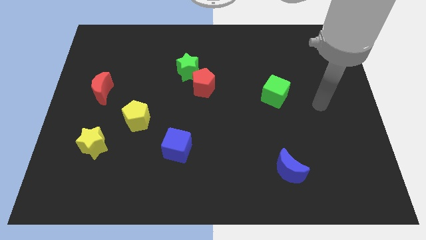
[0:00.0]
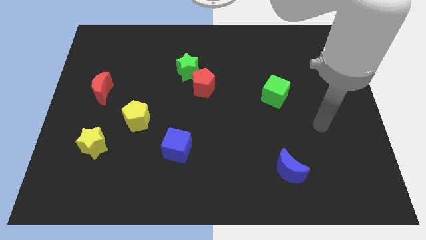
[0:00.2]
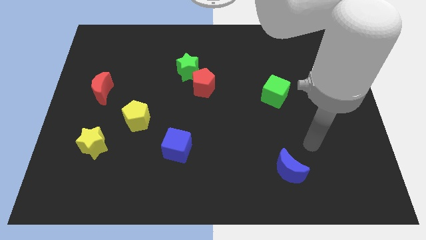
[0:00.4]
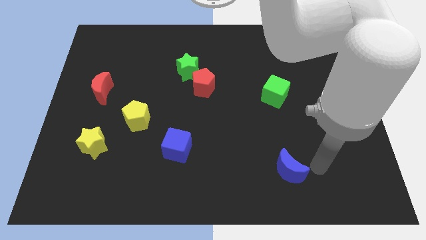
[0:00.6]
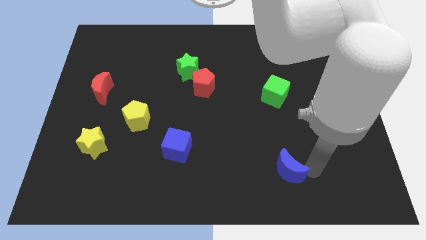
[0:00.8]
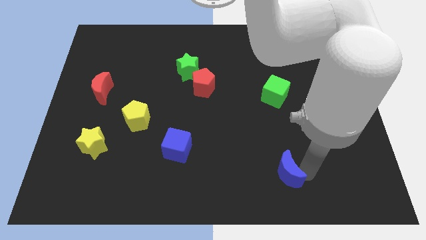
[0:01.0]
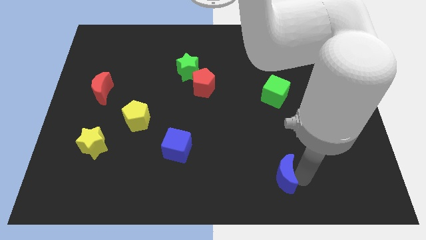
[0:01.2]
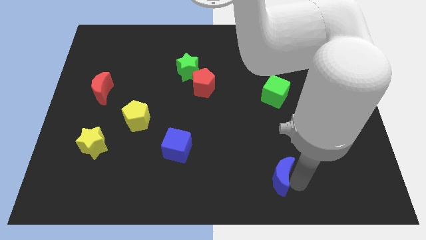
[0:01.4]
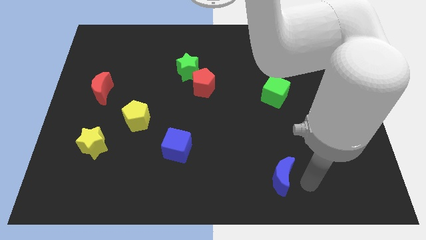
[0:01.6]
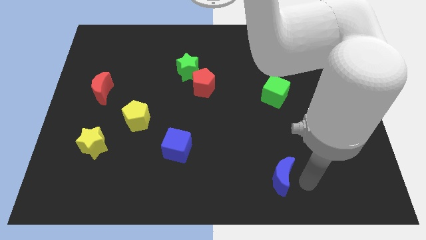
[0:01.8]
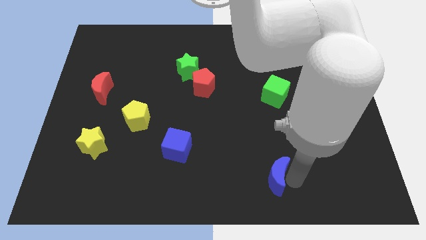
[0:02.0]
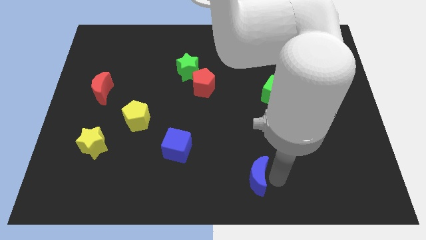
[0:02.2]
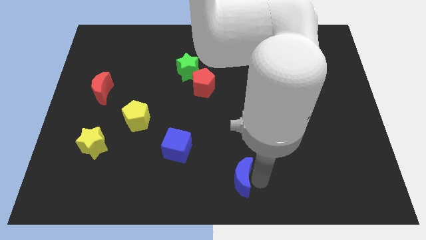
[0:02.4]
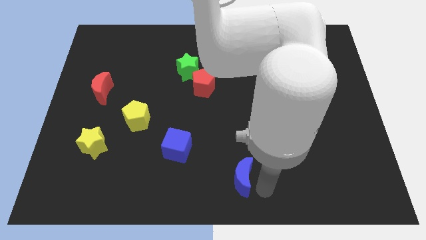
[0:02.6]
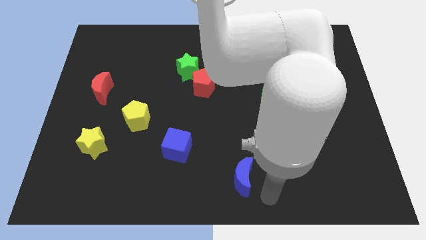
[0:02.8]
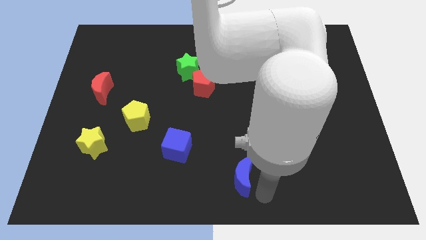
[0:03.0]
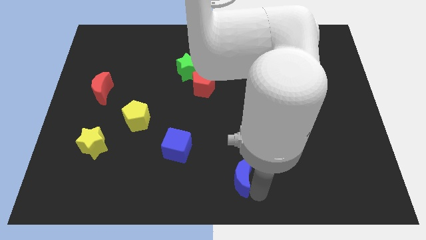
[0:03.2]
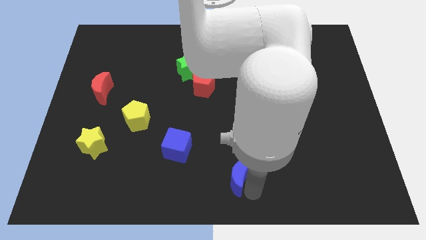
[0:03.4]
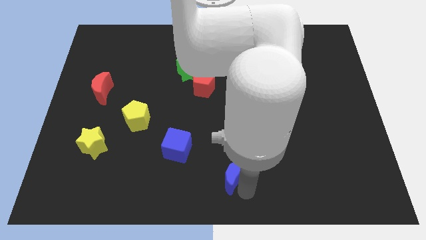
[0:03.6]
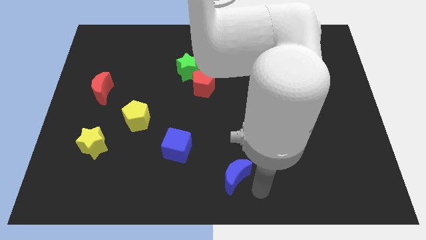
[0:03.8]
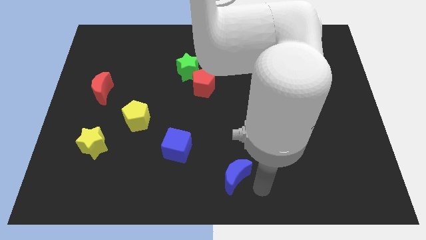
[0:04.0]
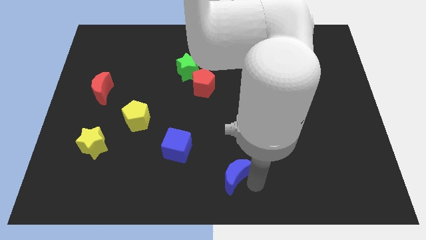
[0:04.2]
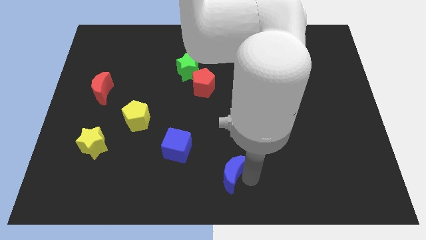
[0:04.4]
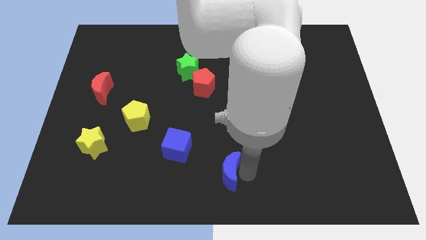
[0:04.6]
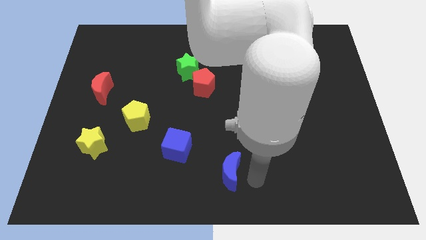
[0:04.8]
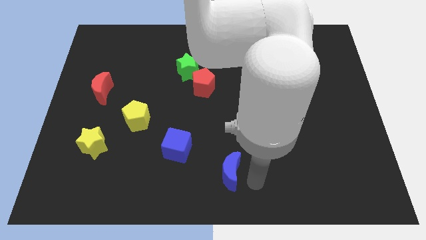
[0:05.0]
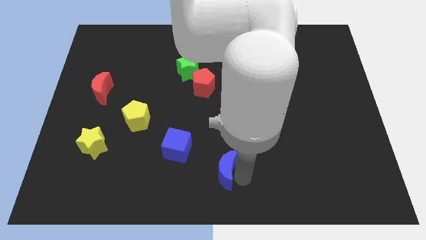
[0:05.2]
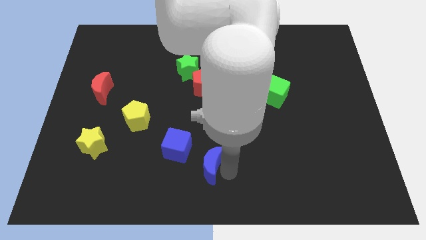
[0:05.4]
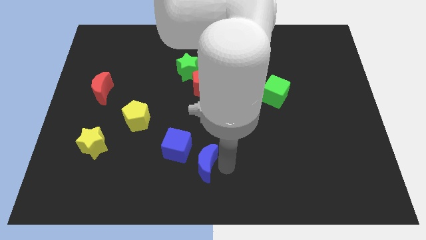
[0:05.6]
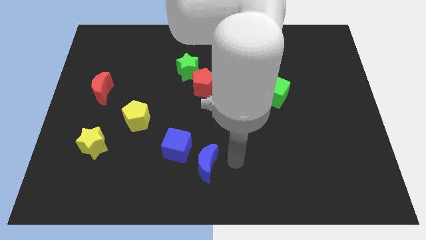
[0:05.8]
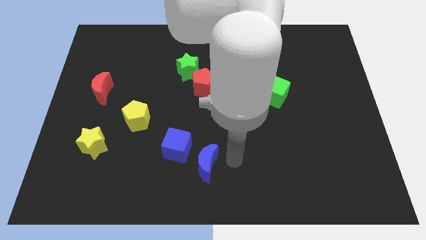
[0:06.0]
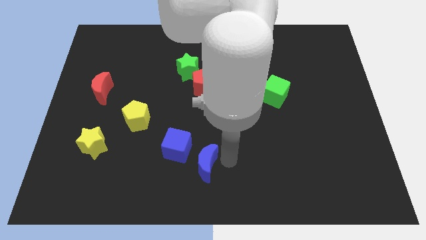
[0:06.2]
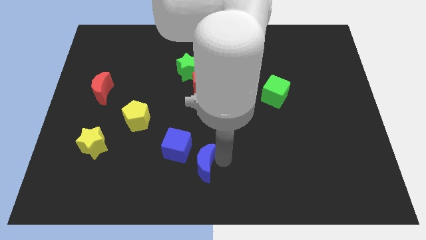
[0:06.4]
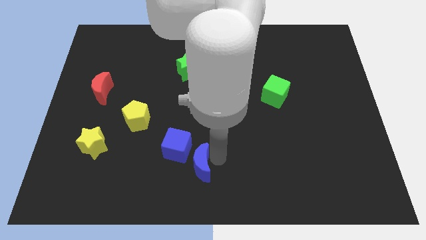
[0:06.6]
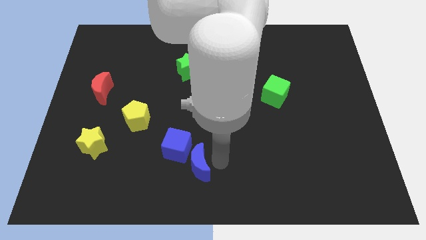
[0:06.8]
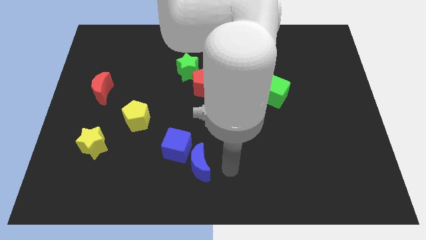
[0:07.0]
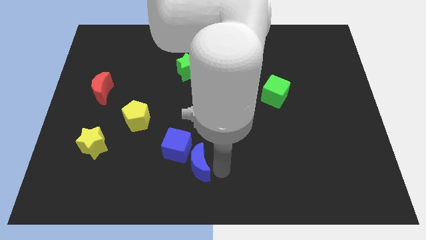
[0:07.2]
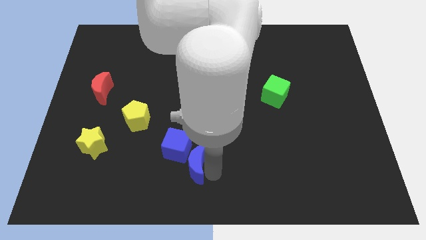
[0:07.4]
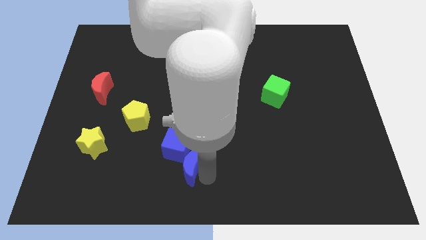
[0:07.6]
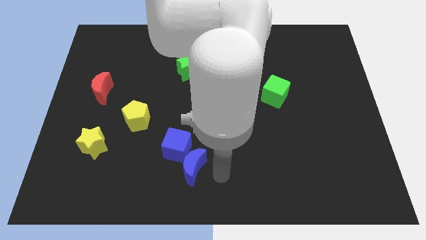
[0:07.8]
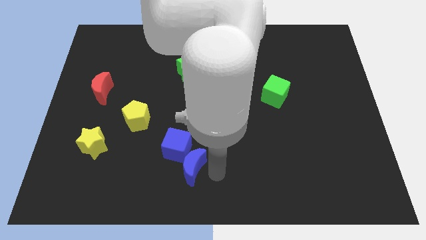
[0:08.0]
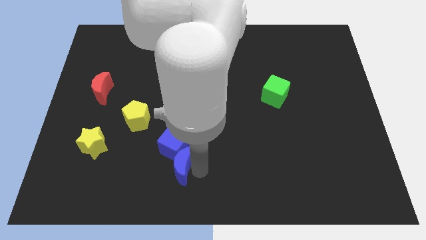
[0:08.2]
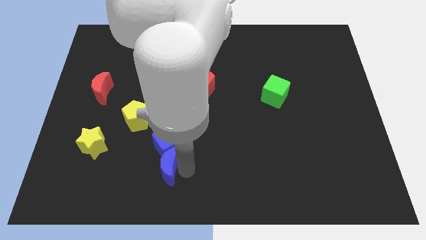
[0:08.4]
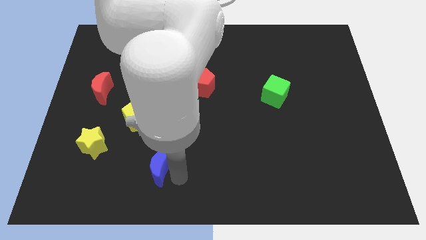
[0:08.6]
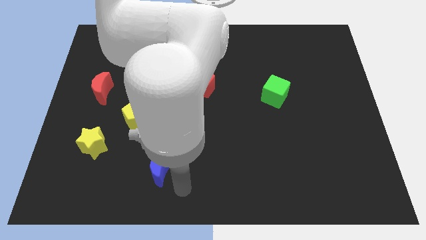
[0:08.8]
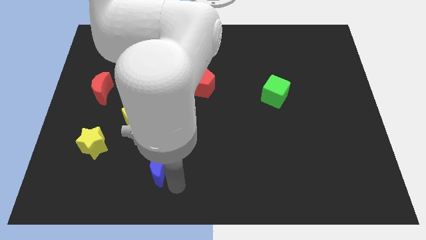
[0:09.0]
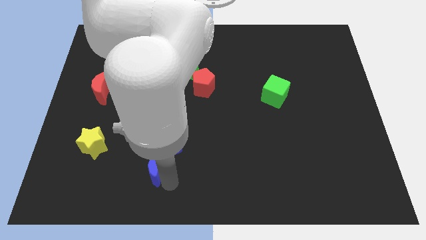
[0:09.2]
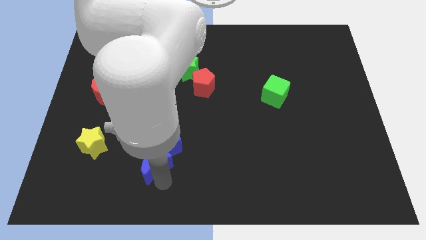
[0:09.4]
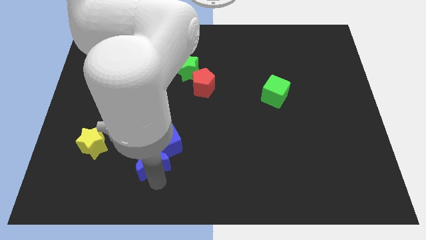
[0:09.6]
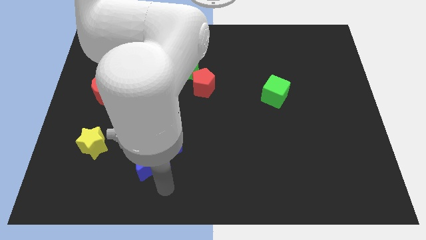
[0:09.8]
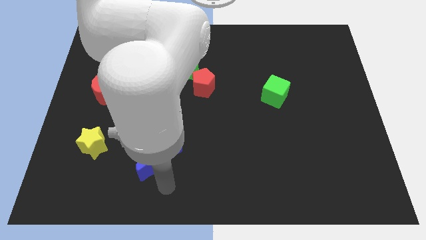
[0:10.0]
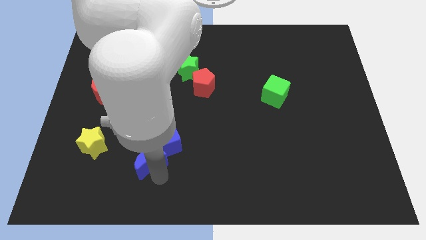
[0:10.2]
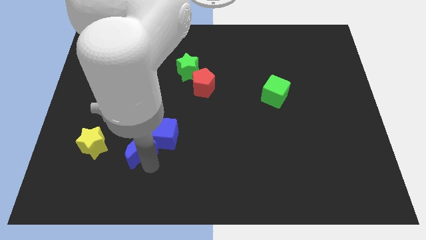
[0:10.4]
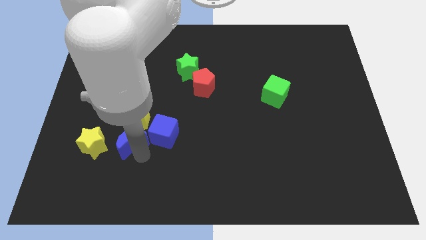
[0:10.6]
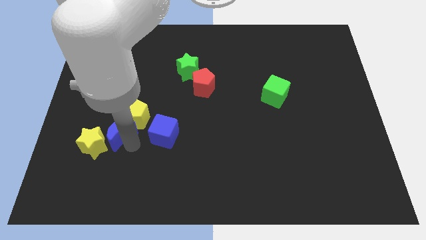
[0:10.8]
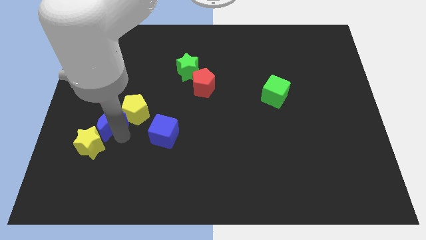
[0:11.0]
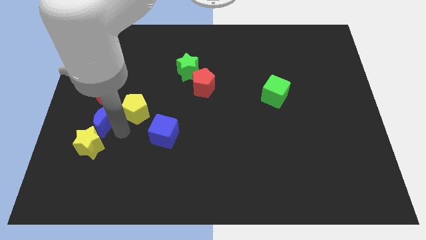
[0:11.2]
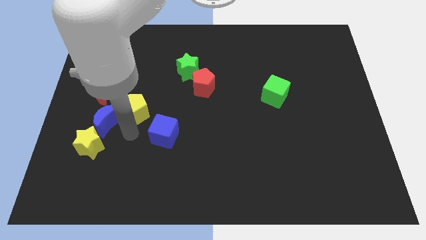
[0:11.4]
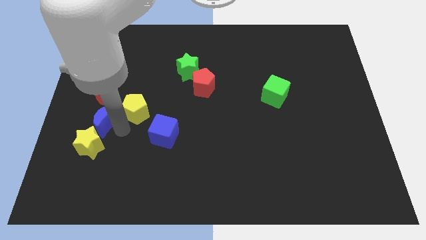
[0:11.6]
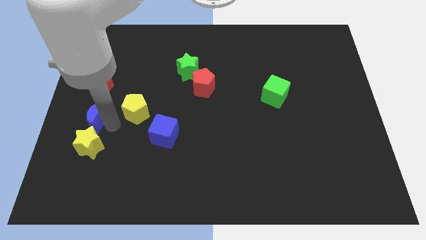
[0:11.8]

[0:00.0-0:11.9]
put the blue moon to the left side

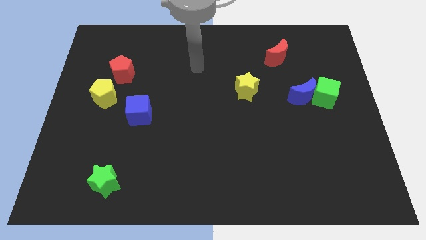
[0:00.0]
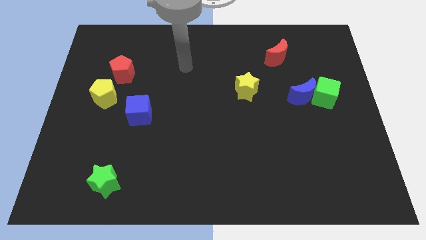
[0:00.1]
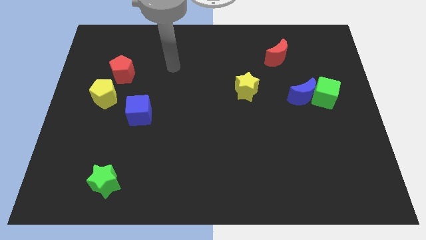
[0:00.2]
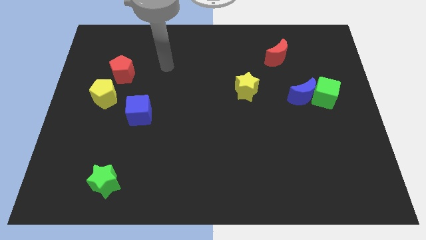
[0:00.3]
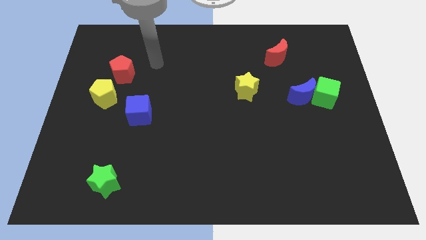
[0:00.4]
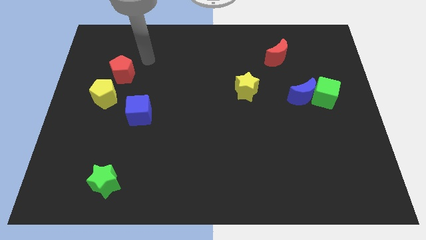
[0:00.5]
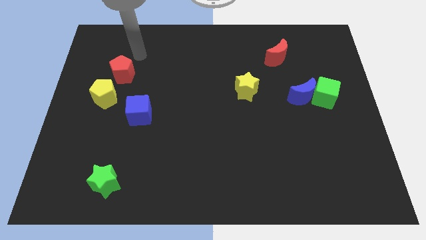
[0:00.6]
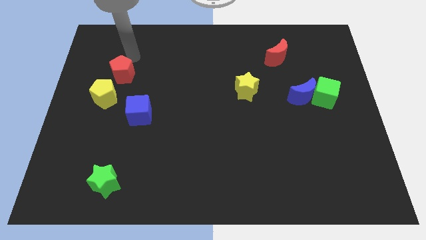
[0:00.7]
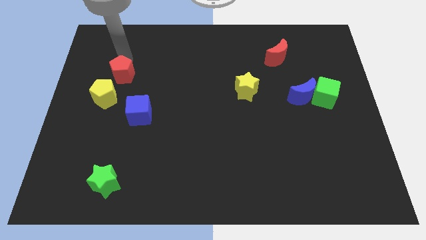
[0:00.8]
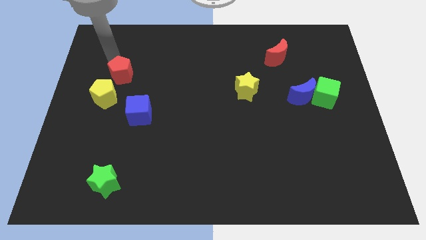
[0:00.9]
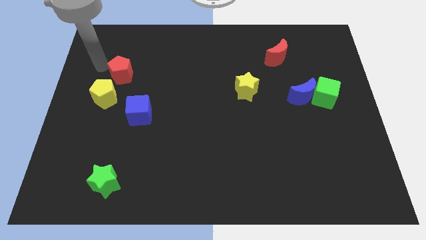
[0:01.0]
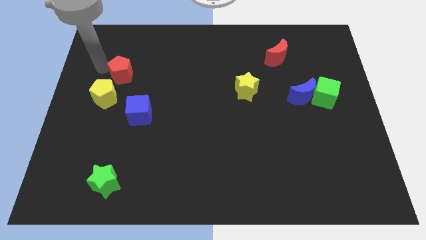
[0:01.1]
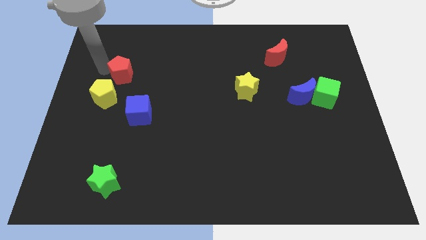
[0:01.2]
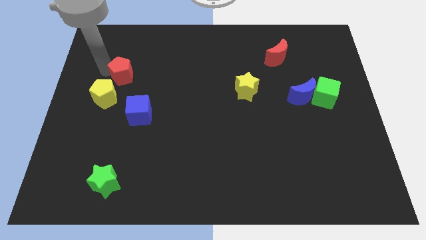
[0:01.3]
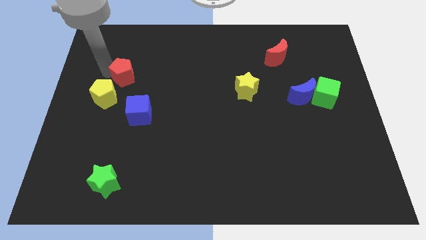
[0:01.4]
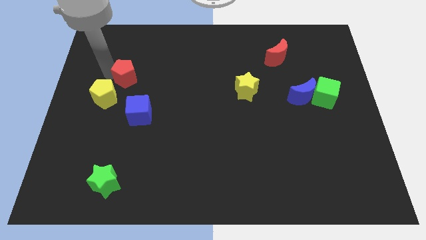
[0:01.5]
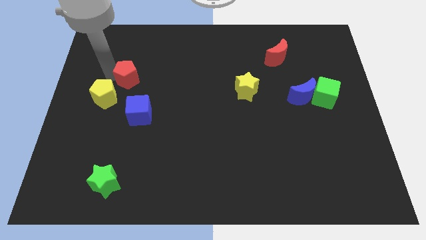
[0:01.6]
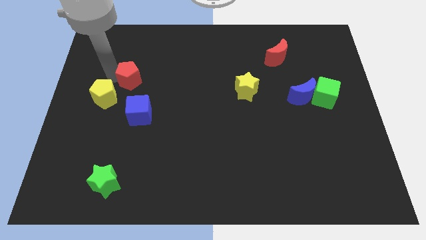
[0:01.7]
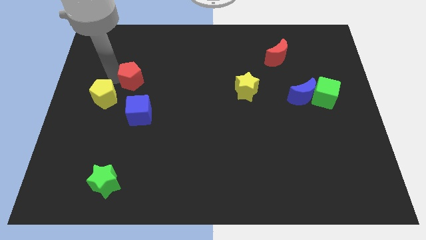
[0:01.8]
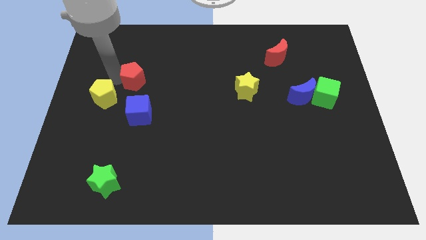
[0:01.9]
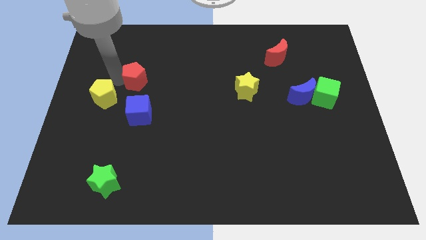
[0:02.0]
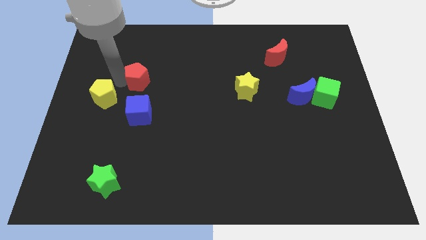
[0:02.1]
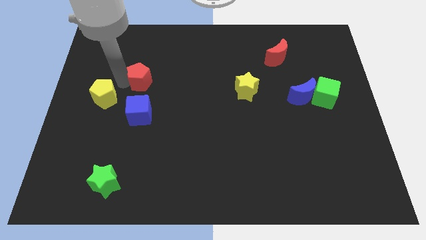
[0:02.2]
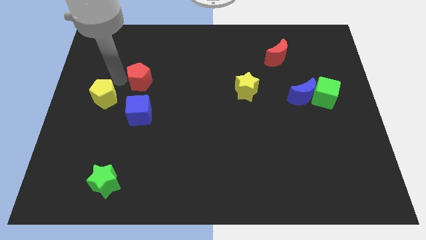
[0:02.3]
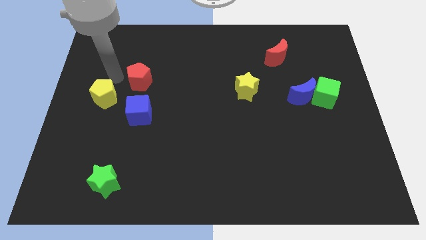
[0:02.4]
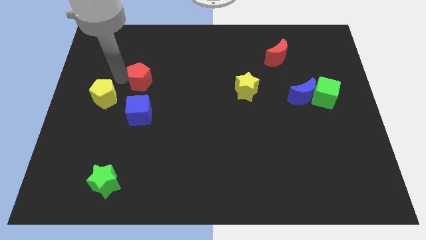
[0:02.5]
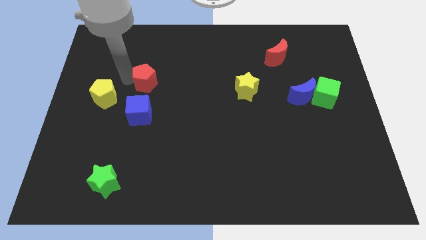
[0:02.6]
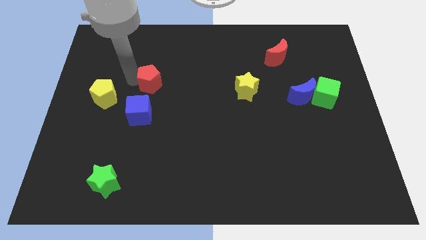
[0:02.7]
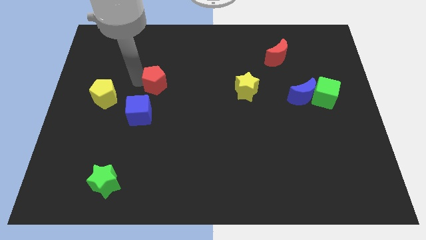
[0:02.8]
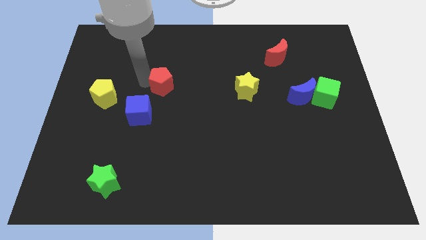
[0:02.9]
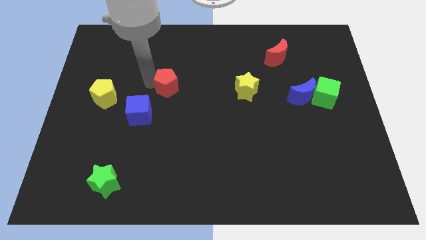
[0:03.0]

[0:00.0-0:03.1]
push the red pentagon to the middle of the board
